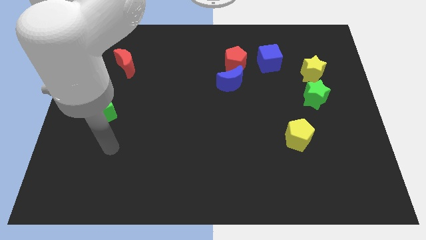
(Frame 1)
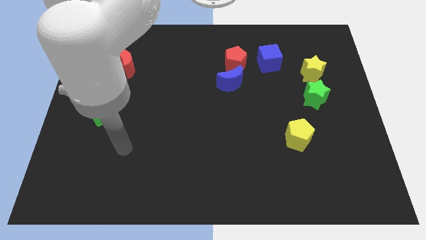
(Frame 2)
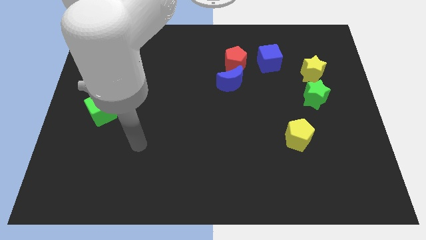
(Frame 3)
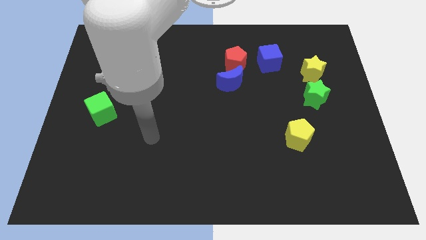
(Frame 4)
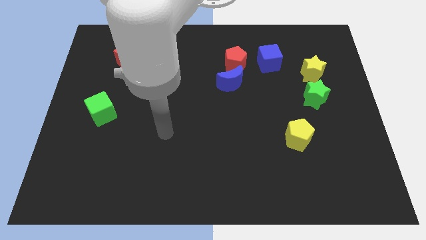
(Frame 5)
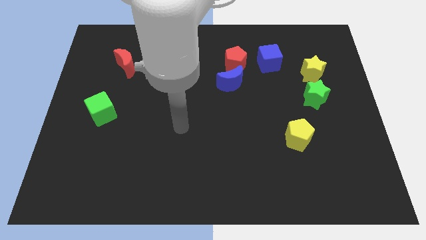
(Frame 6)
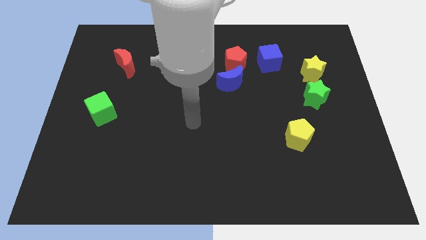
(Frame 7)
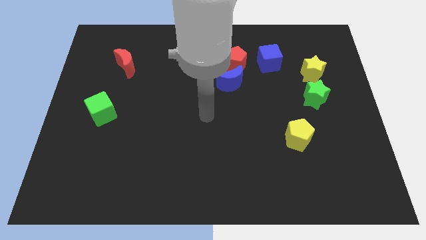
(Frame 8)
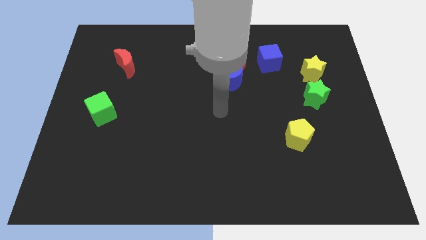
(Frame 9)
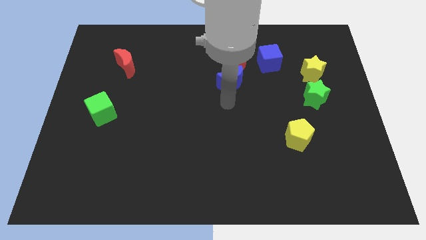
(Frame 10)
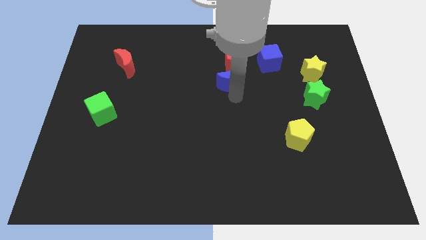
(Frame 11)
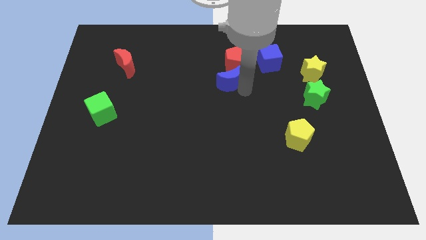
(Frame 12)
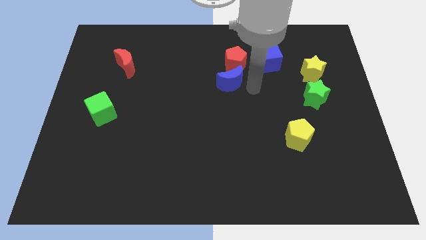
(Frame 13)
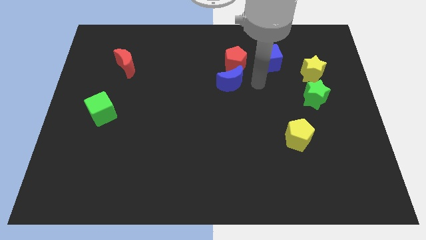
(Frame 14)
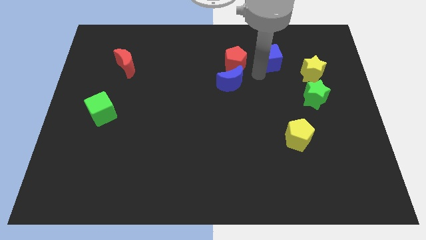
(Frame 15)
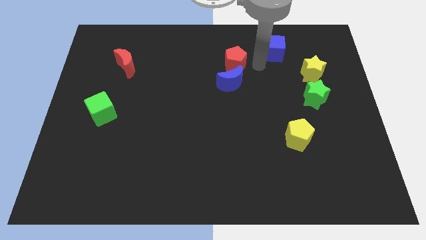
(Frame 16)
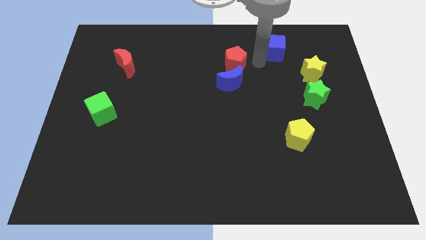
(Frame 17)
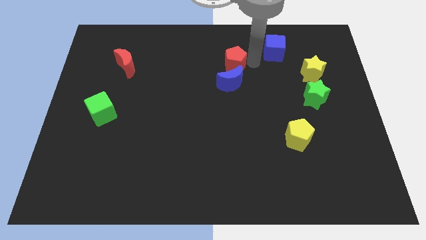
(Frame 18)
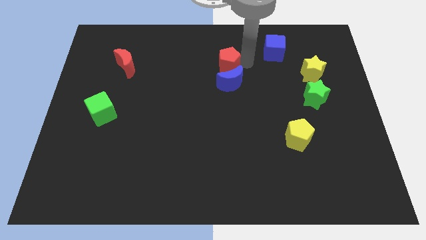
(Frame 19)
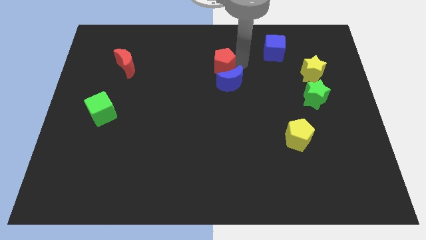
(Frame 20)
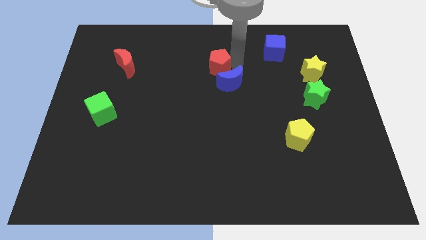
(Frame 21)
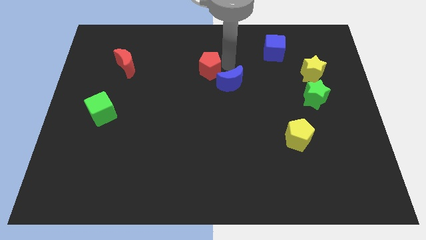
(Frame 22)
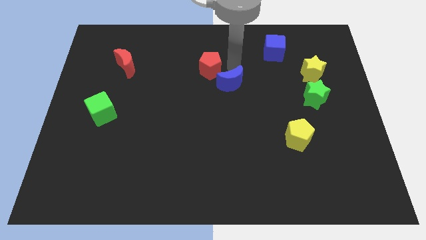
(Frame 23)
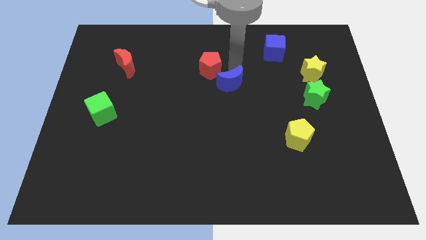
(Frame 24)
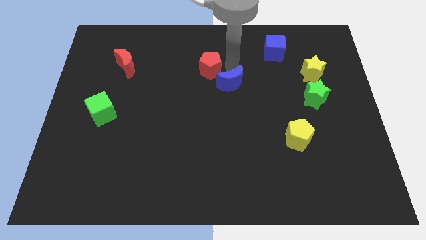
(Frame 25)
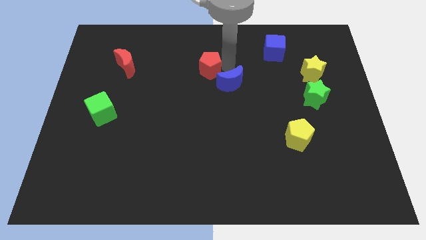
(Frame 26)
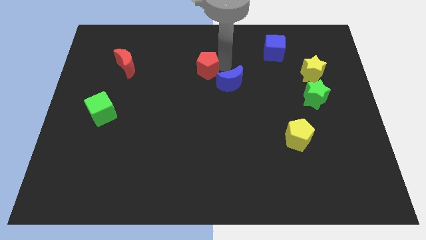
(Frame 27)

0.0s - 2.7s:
slide the red pentagon left slightly

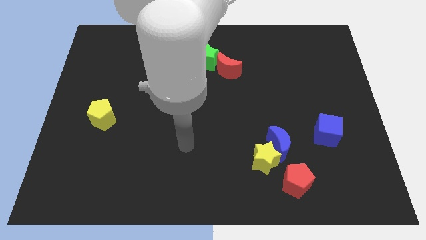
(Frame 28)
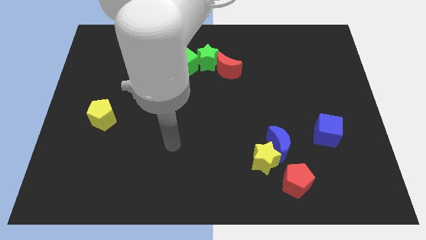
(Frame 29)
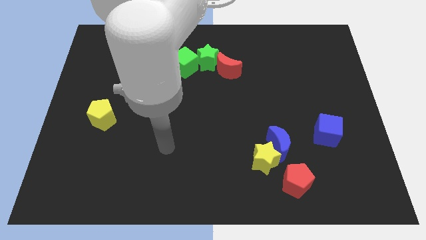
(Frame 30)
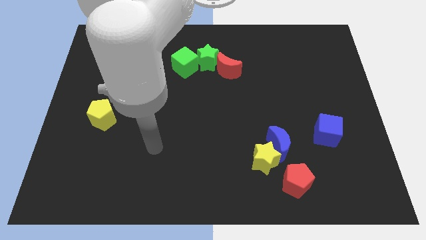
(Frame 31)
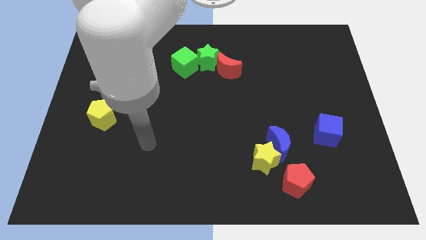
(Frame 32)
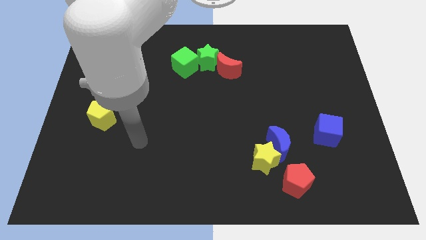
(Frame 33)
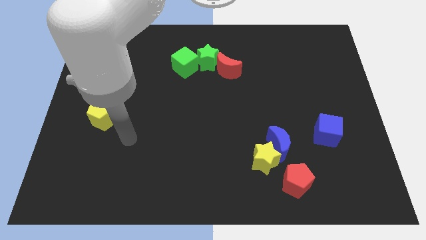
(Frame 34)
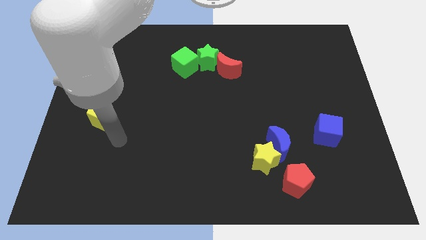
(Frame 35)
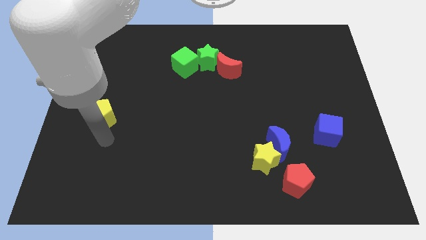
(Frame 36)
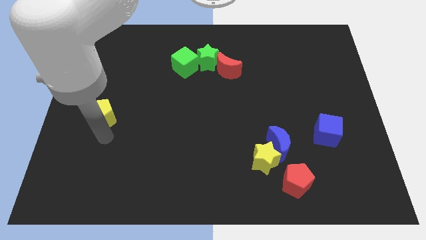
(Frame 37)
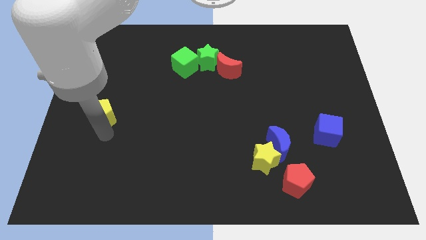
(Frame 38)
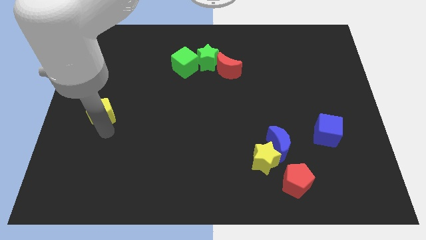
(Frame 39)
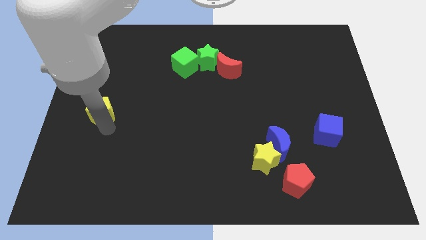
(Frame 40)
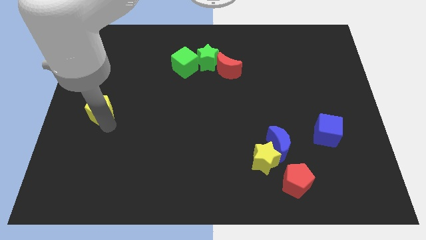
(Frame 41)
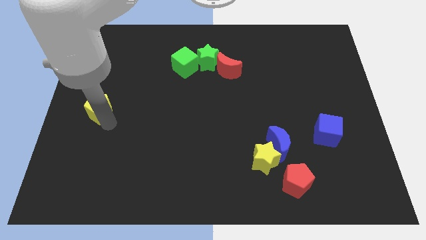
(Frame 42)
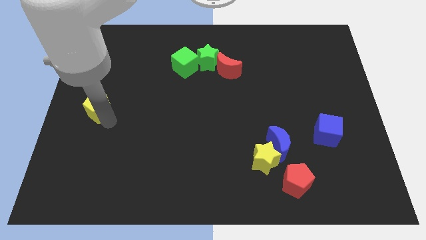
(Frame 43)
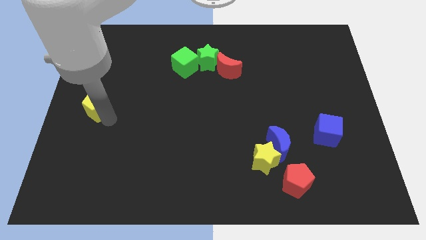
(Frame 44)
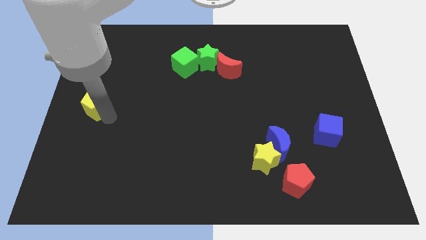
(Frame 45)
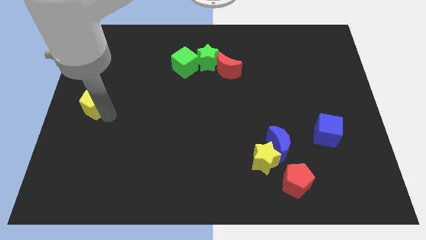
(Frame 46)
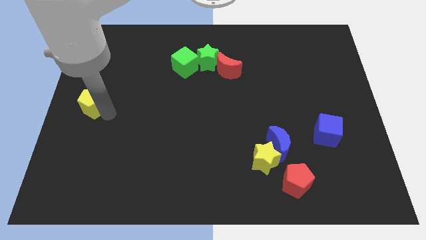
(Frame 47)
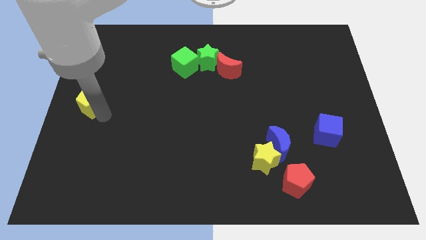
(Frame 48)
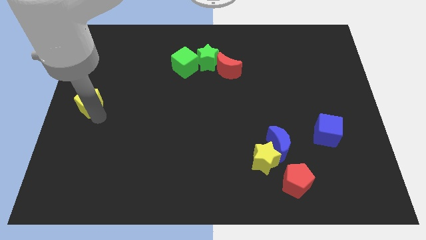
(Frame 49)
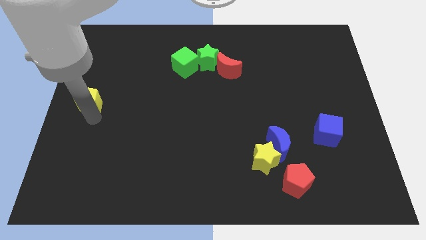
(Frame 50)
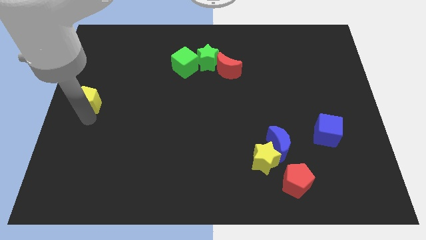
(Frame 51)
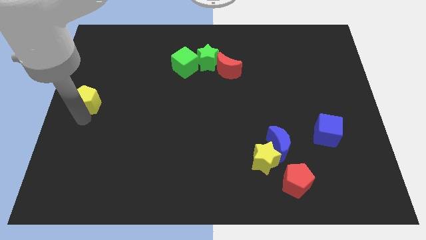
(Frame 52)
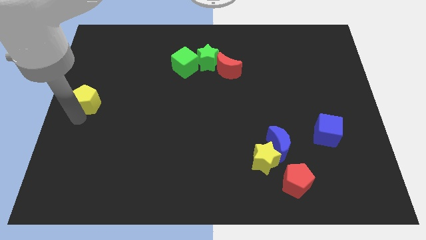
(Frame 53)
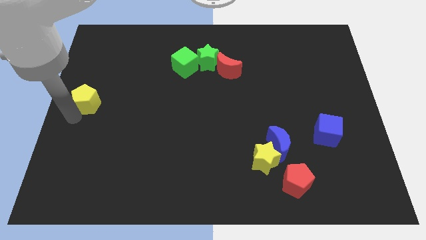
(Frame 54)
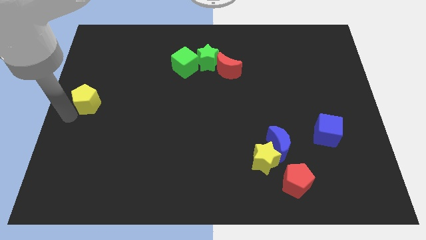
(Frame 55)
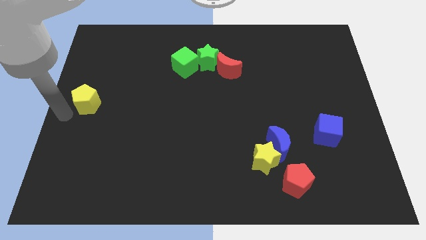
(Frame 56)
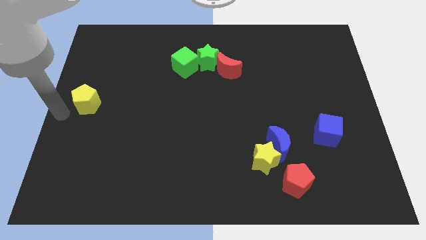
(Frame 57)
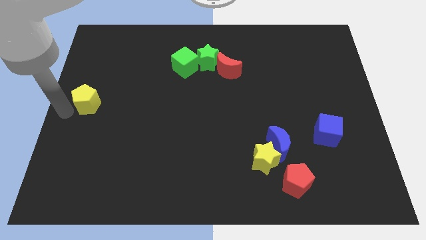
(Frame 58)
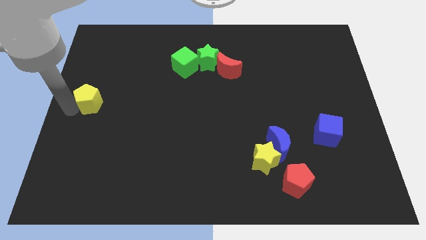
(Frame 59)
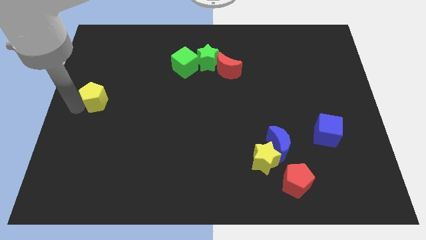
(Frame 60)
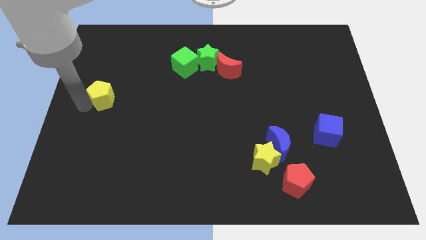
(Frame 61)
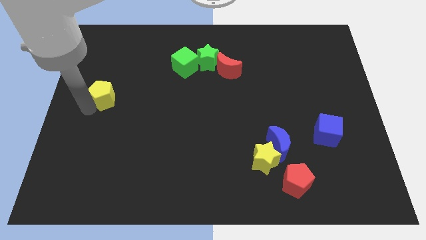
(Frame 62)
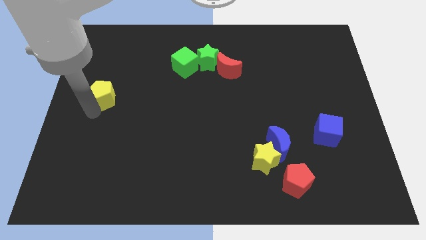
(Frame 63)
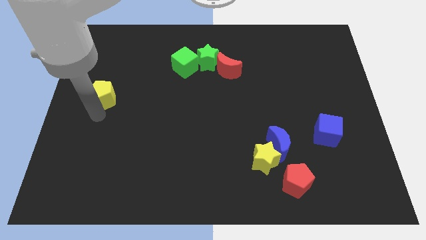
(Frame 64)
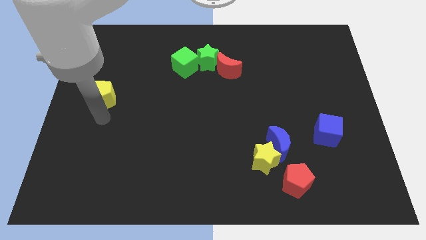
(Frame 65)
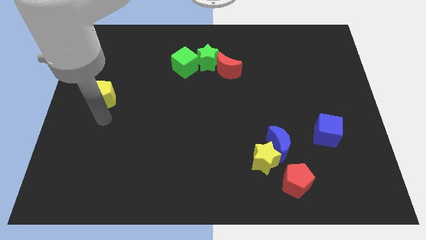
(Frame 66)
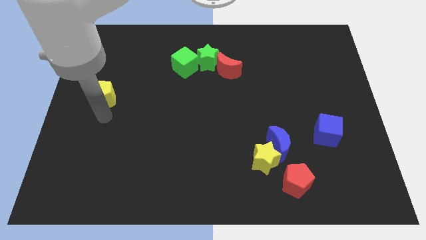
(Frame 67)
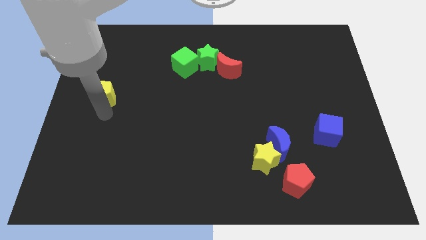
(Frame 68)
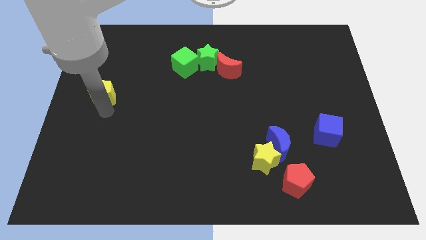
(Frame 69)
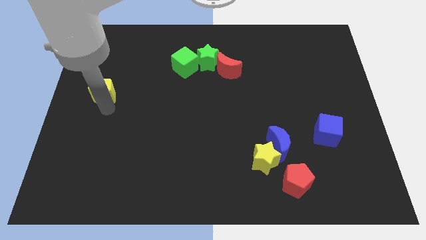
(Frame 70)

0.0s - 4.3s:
move the yellow pentagon a little bit upwards

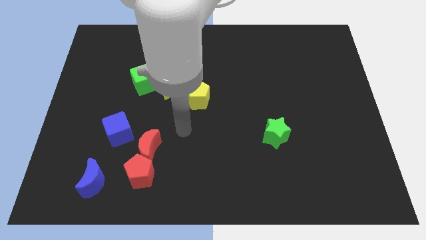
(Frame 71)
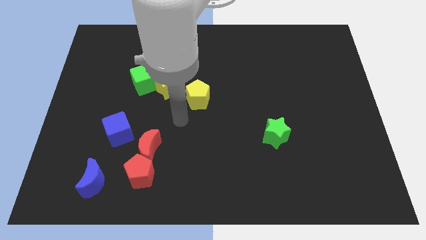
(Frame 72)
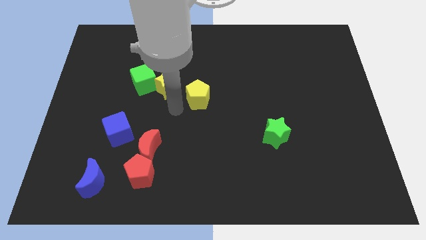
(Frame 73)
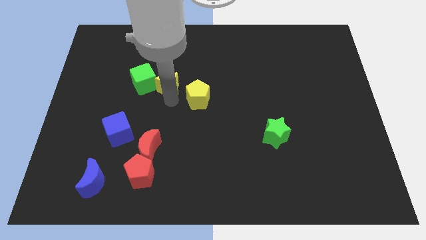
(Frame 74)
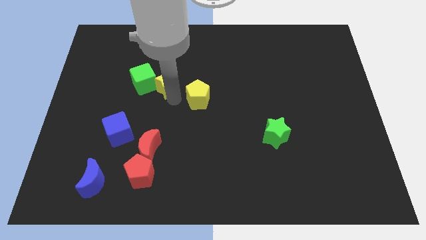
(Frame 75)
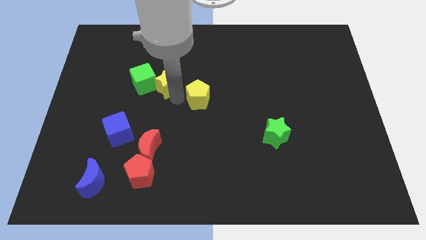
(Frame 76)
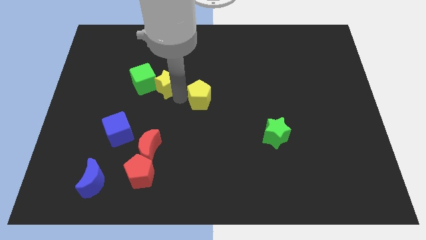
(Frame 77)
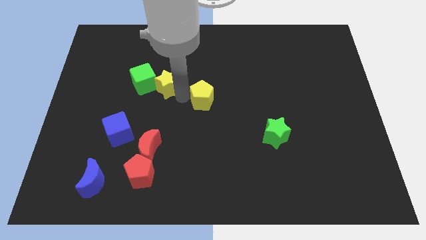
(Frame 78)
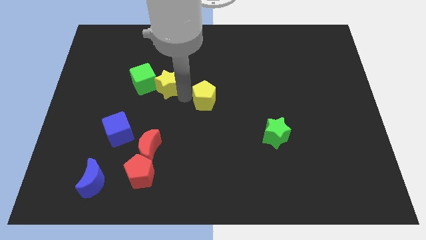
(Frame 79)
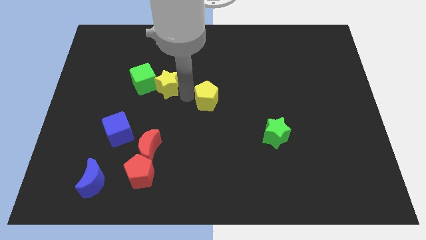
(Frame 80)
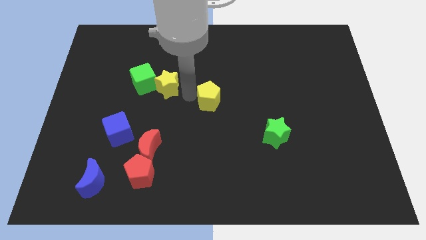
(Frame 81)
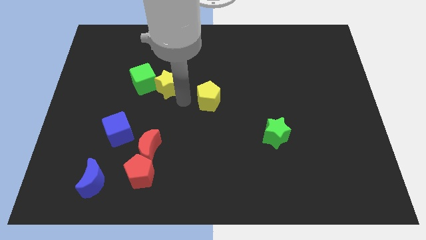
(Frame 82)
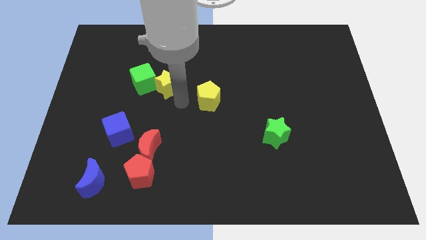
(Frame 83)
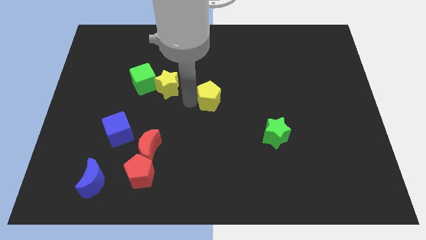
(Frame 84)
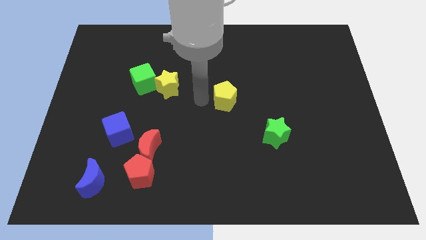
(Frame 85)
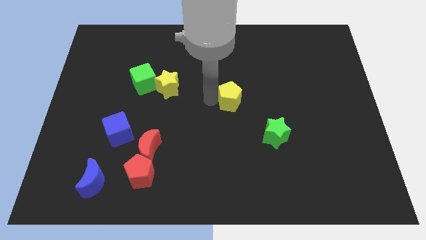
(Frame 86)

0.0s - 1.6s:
slightly slide the yellow pentagon right
